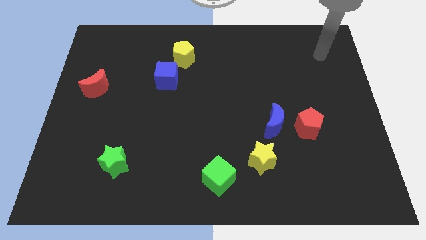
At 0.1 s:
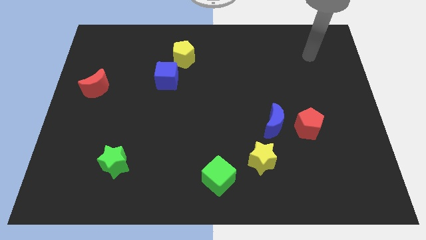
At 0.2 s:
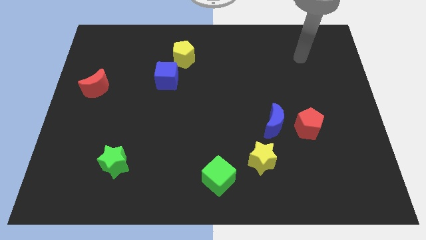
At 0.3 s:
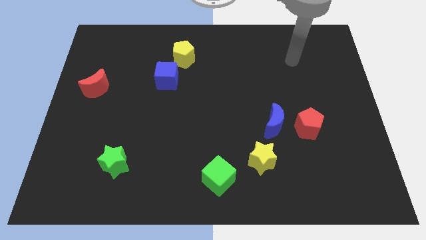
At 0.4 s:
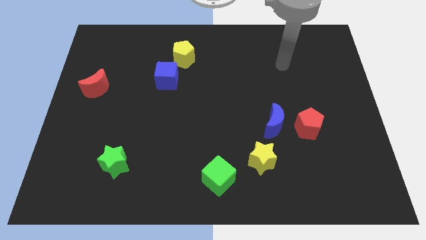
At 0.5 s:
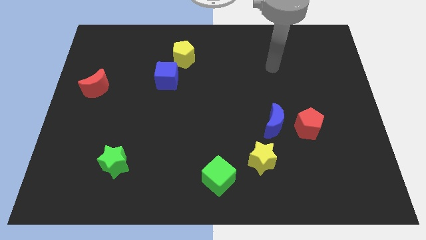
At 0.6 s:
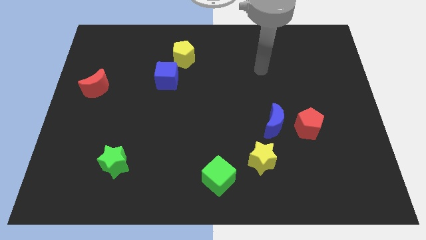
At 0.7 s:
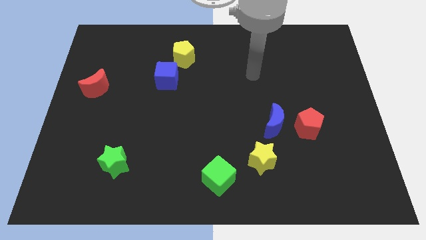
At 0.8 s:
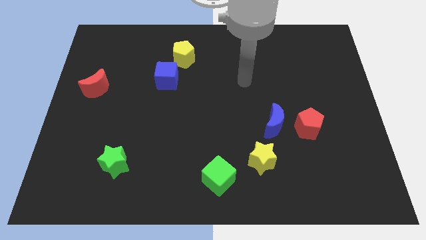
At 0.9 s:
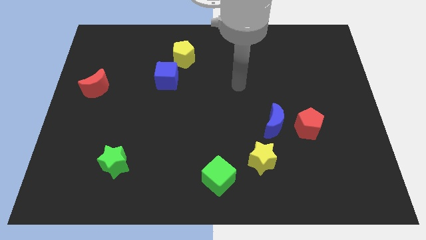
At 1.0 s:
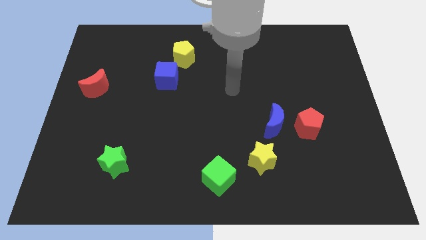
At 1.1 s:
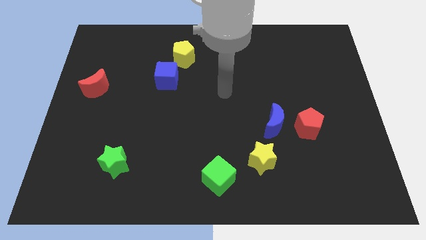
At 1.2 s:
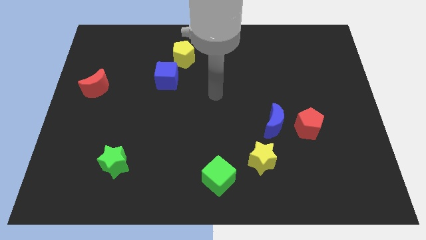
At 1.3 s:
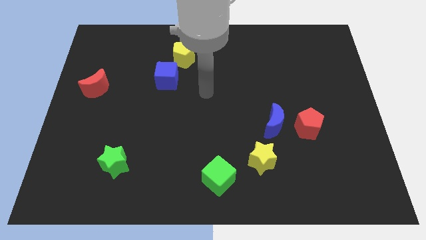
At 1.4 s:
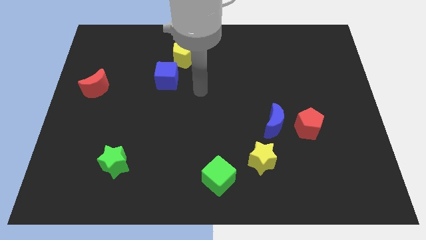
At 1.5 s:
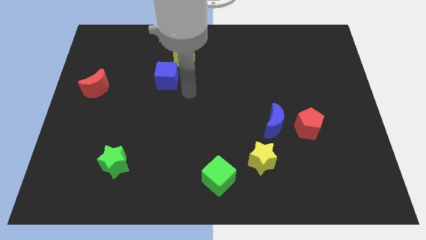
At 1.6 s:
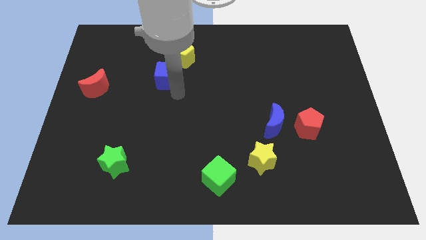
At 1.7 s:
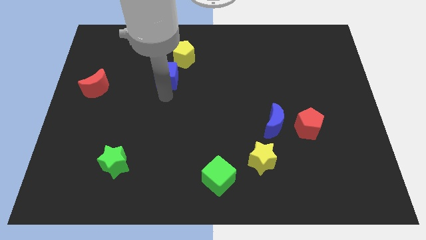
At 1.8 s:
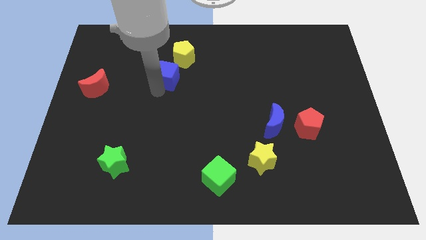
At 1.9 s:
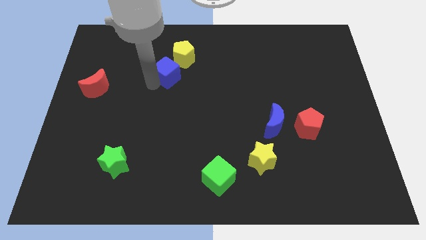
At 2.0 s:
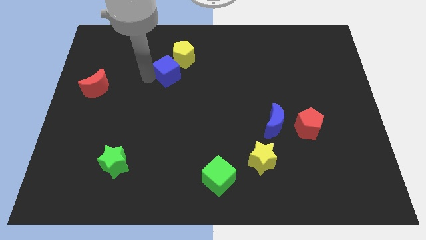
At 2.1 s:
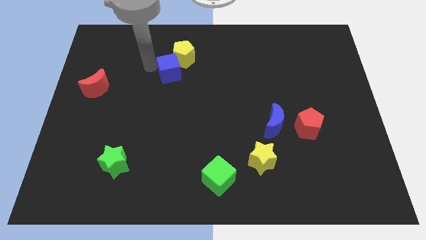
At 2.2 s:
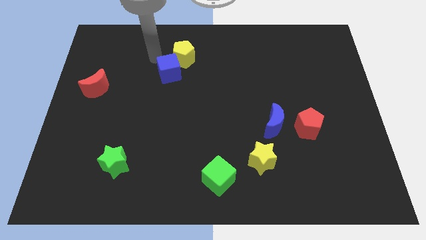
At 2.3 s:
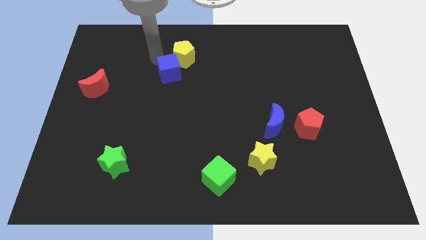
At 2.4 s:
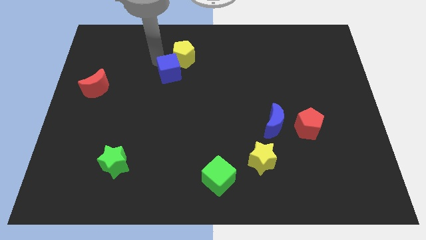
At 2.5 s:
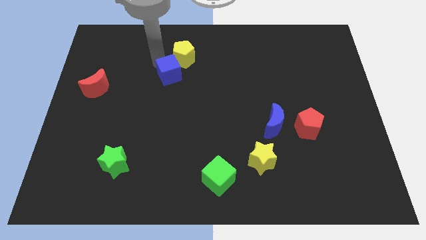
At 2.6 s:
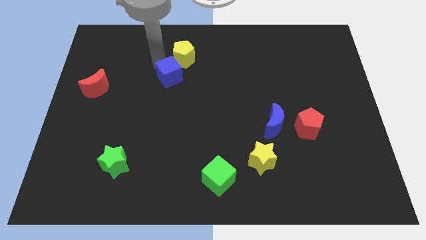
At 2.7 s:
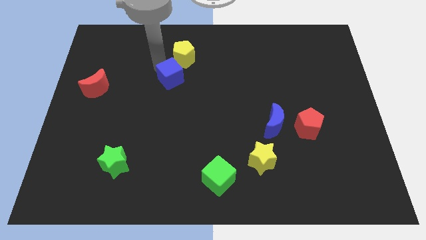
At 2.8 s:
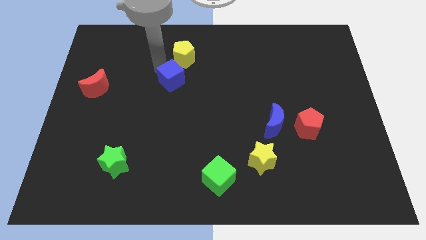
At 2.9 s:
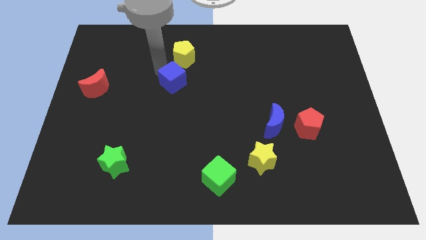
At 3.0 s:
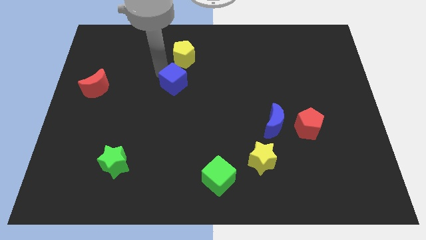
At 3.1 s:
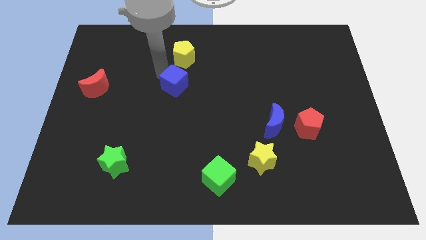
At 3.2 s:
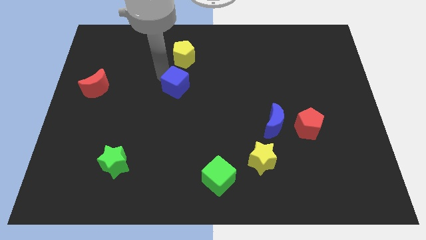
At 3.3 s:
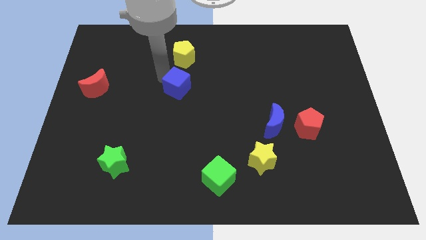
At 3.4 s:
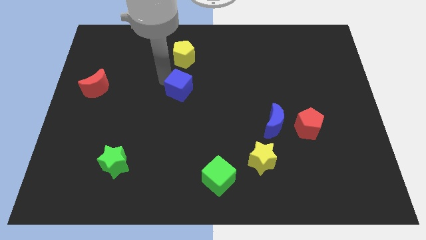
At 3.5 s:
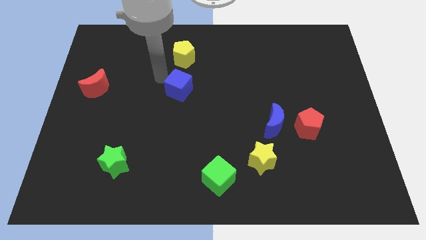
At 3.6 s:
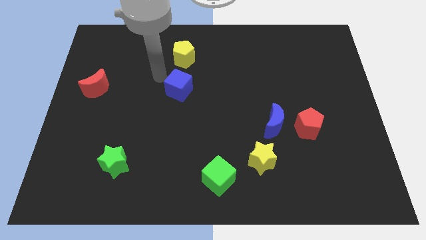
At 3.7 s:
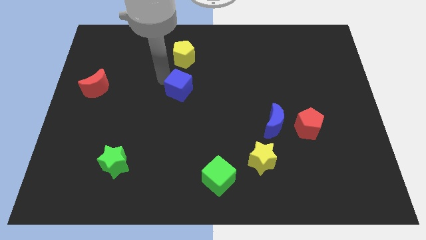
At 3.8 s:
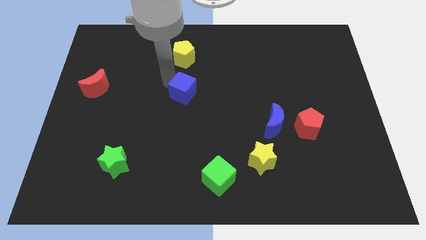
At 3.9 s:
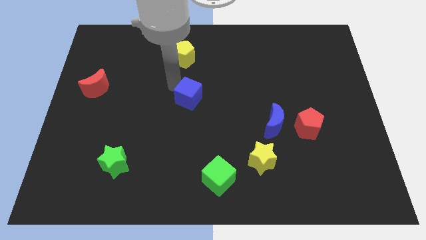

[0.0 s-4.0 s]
move the blue cube downwards and right slightly

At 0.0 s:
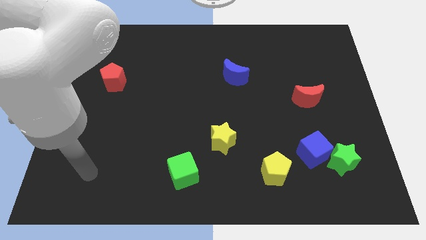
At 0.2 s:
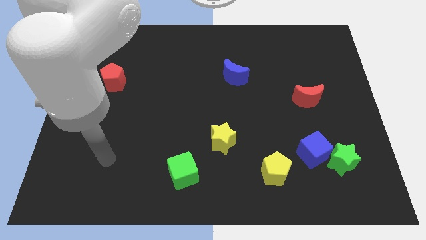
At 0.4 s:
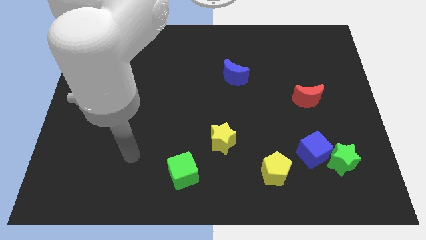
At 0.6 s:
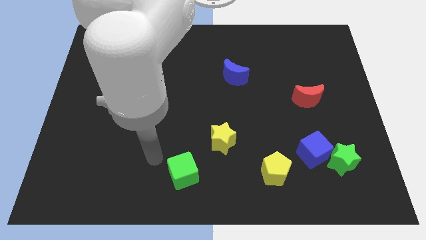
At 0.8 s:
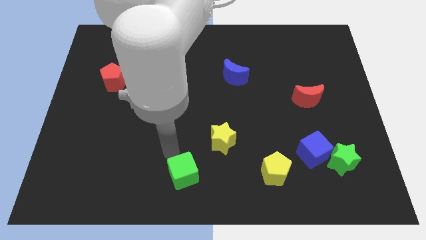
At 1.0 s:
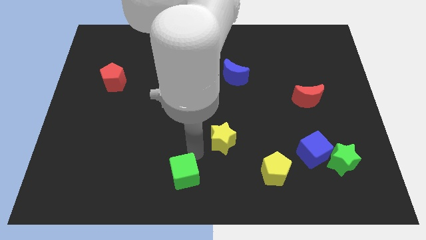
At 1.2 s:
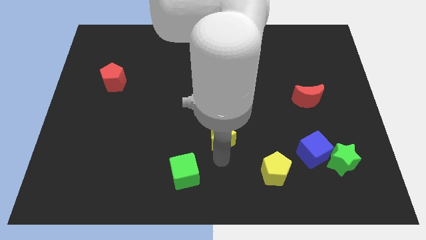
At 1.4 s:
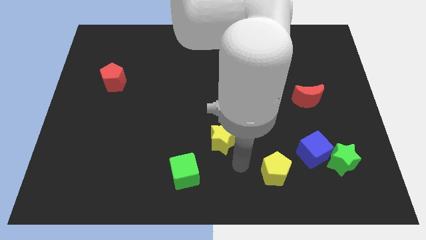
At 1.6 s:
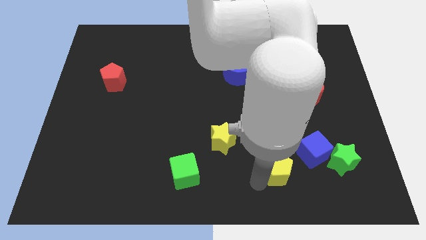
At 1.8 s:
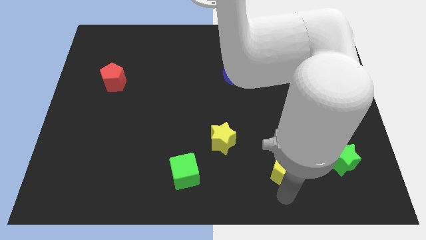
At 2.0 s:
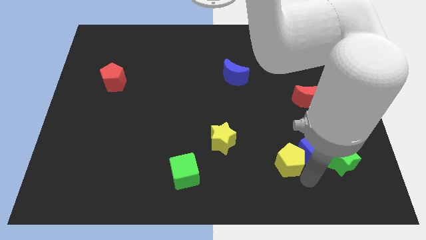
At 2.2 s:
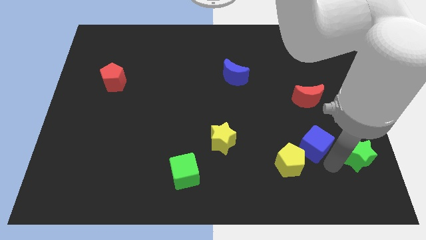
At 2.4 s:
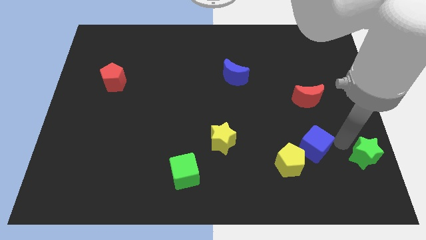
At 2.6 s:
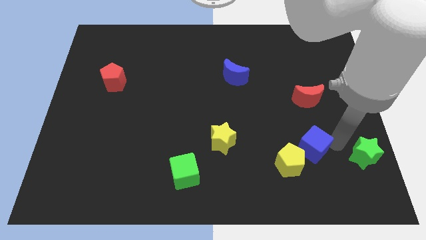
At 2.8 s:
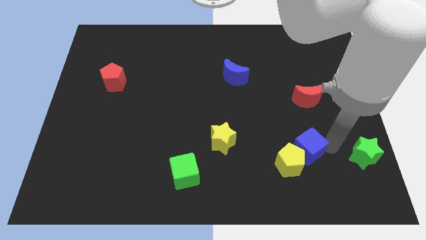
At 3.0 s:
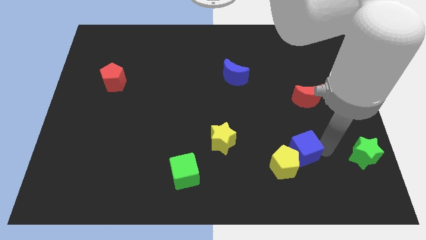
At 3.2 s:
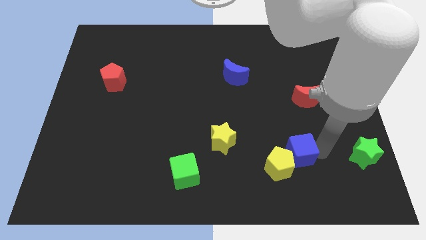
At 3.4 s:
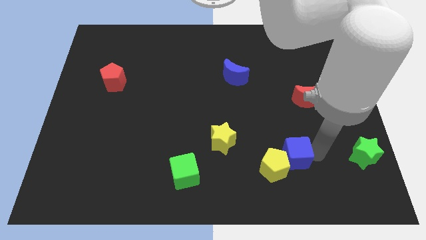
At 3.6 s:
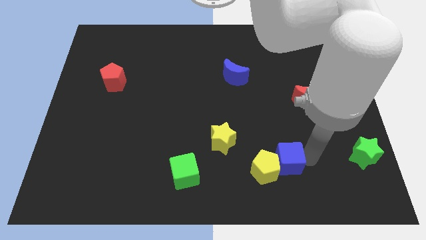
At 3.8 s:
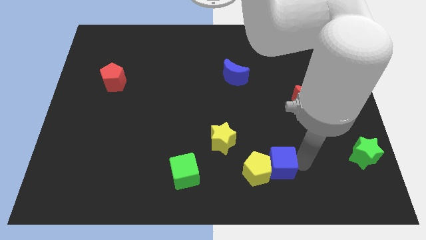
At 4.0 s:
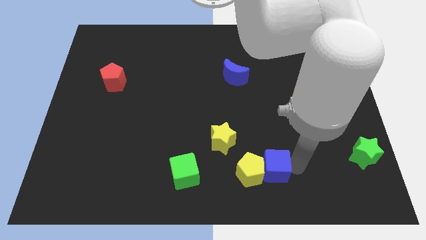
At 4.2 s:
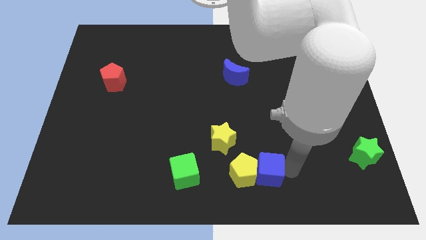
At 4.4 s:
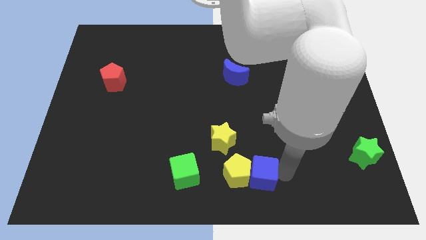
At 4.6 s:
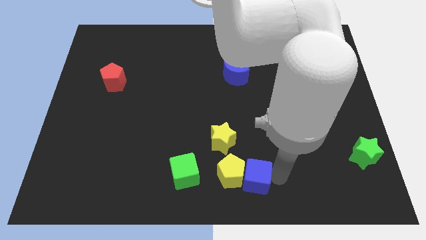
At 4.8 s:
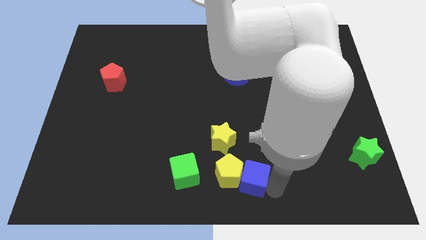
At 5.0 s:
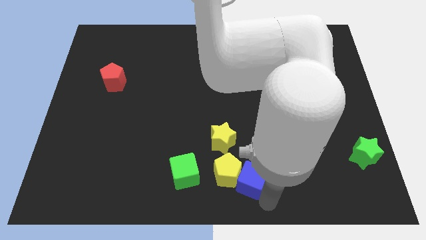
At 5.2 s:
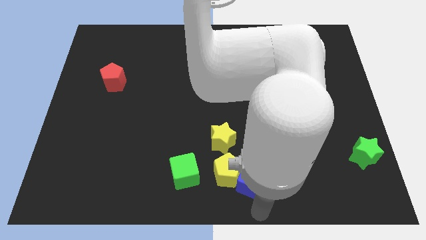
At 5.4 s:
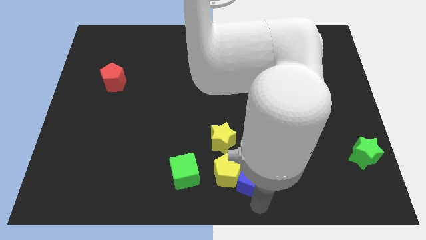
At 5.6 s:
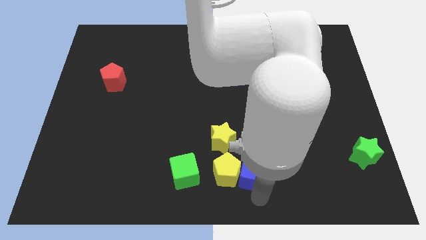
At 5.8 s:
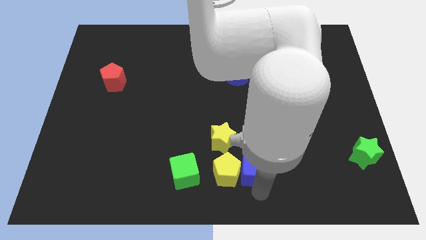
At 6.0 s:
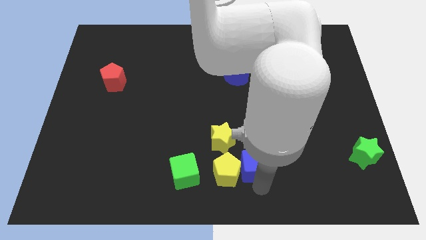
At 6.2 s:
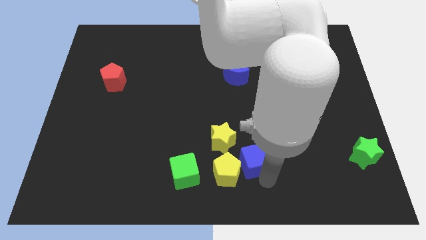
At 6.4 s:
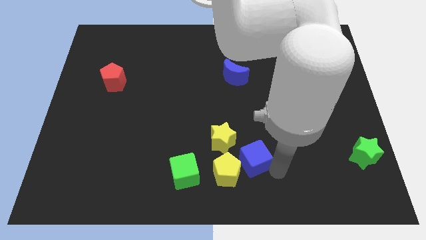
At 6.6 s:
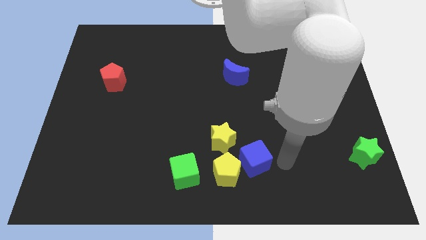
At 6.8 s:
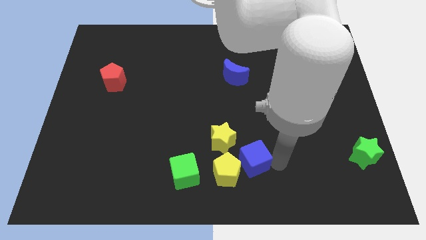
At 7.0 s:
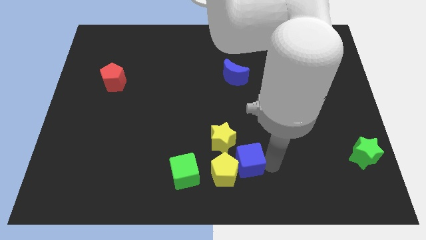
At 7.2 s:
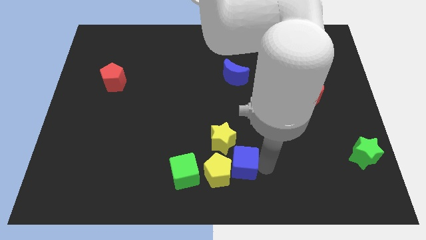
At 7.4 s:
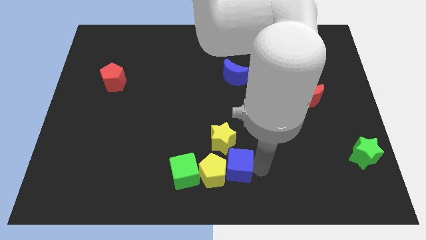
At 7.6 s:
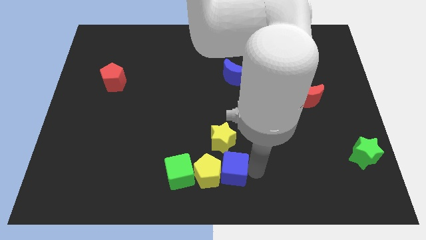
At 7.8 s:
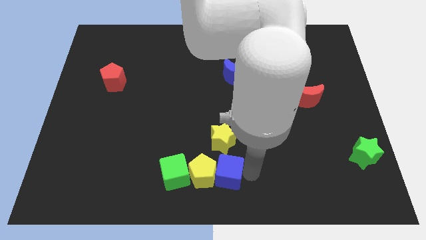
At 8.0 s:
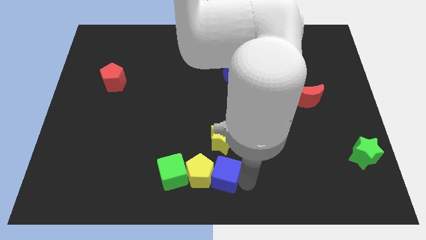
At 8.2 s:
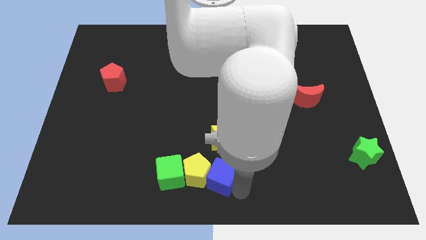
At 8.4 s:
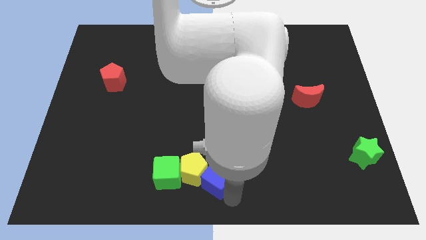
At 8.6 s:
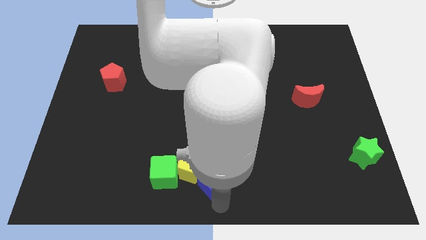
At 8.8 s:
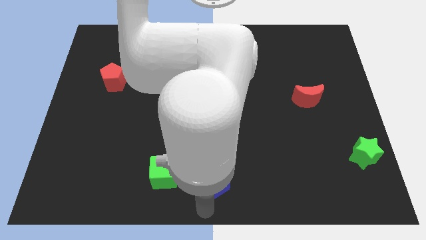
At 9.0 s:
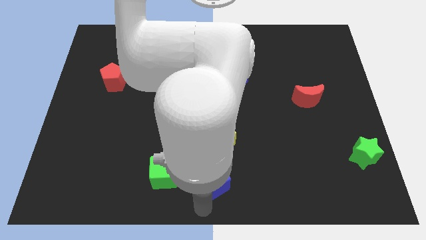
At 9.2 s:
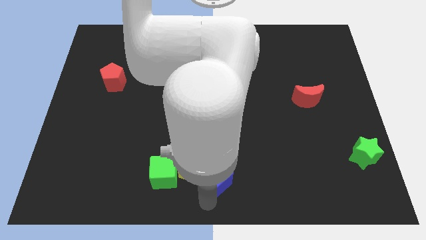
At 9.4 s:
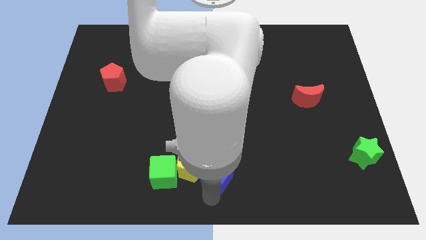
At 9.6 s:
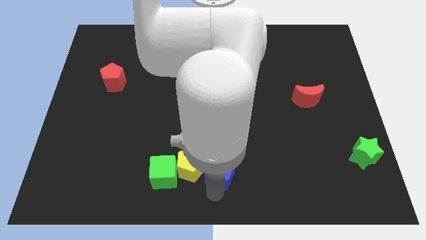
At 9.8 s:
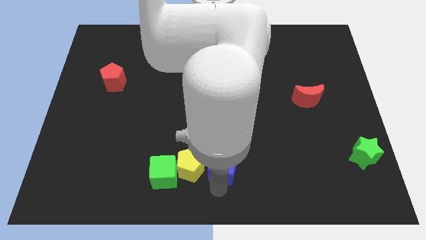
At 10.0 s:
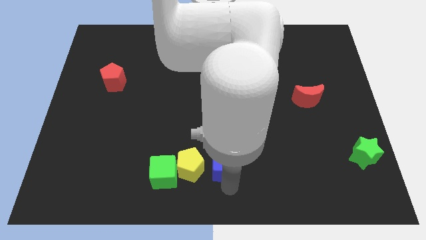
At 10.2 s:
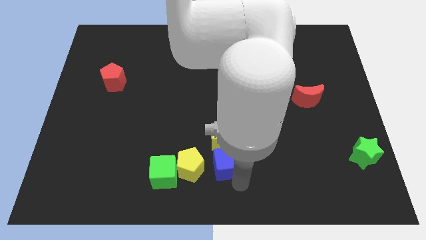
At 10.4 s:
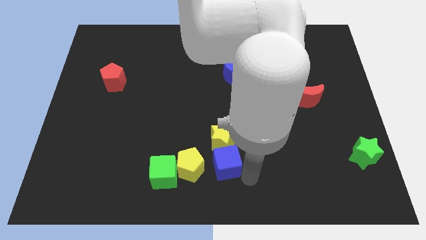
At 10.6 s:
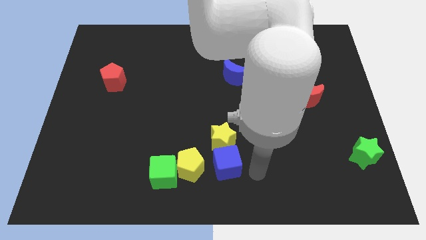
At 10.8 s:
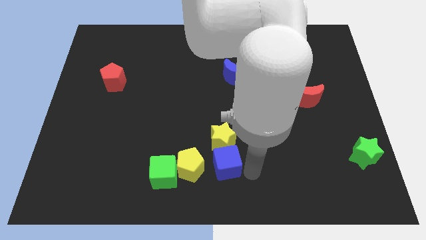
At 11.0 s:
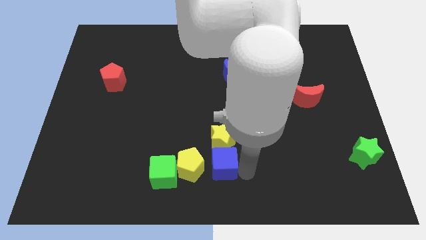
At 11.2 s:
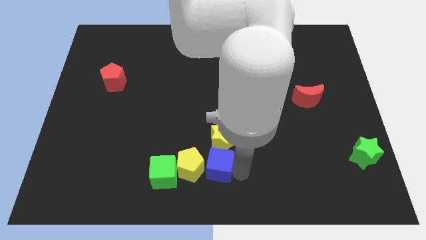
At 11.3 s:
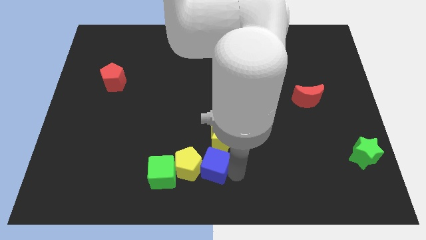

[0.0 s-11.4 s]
slide the blue cube left
